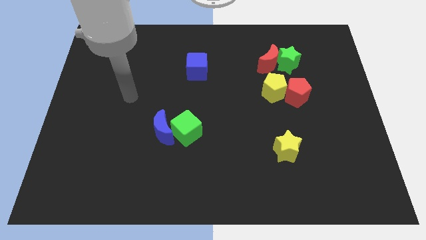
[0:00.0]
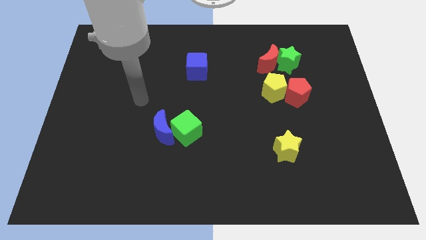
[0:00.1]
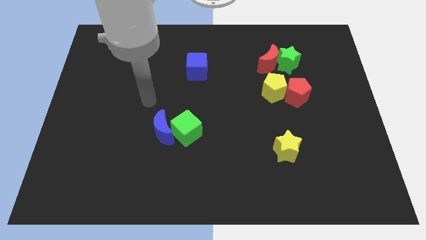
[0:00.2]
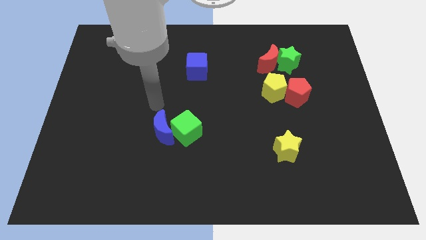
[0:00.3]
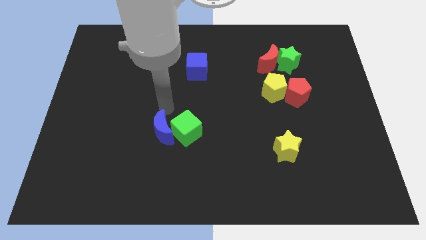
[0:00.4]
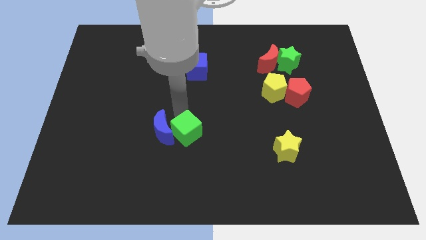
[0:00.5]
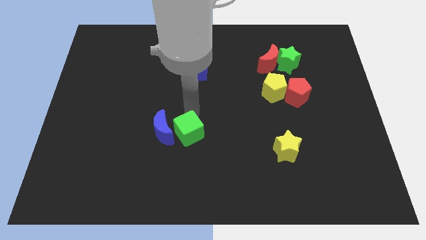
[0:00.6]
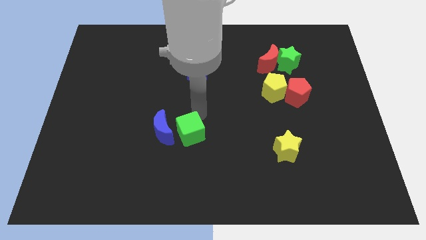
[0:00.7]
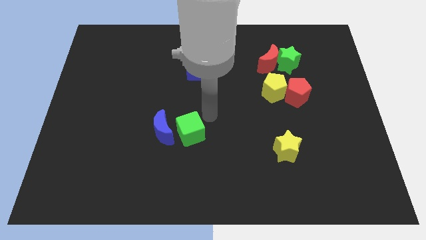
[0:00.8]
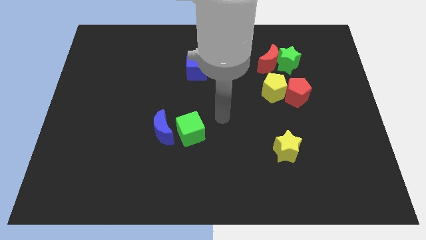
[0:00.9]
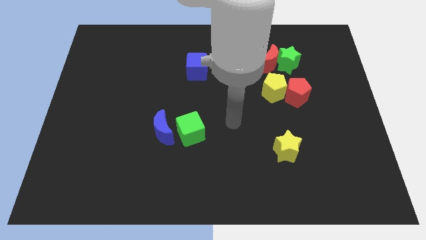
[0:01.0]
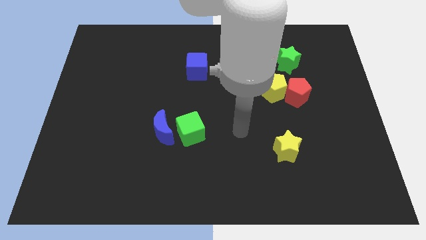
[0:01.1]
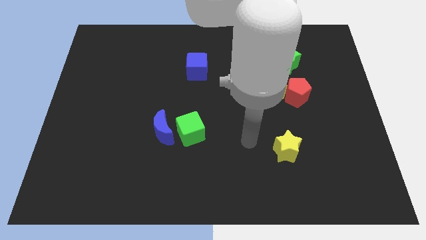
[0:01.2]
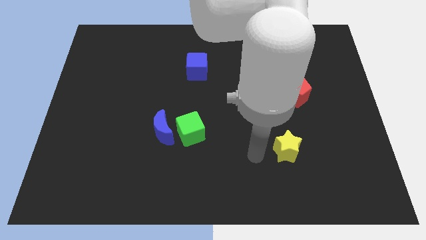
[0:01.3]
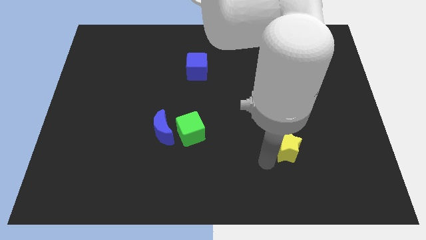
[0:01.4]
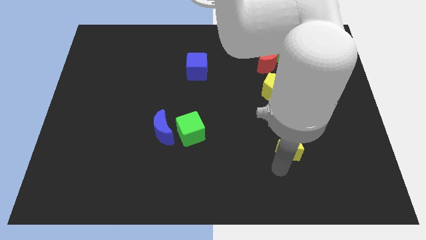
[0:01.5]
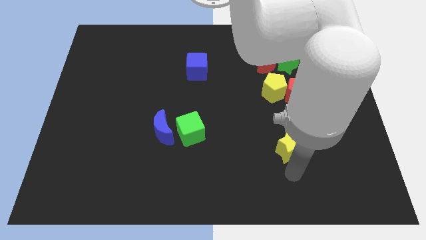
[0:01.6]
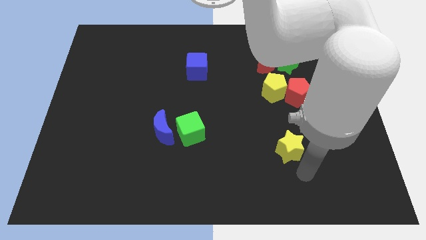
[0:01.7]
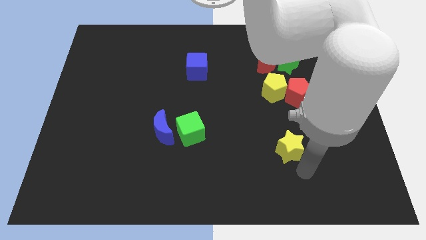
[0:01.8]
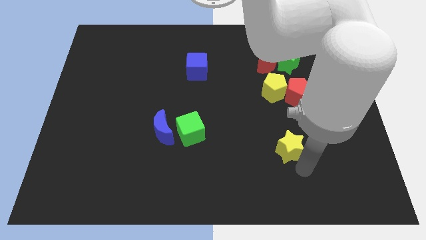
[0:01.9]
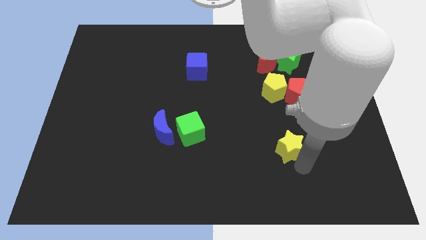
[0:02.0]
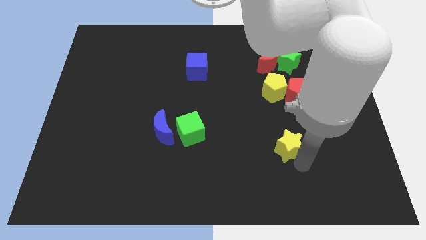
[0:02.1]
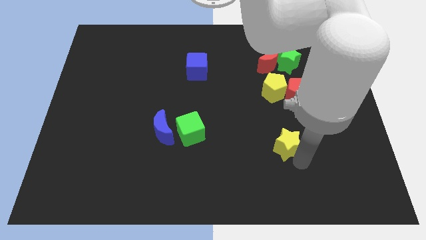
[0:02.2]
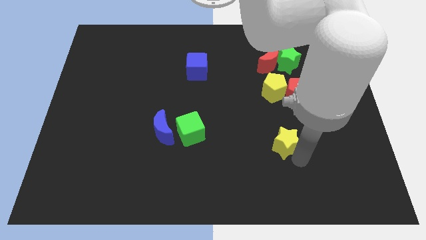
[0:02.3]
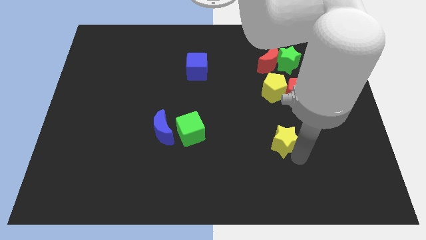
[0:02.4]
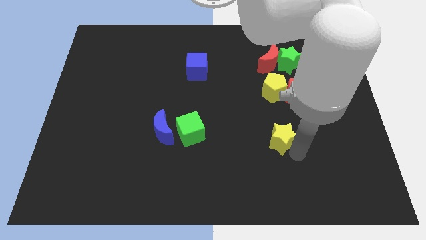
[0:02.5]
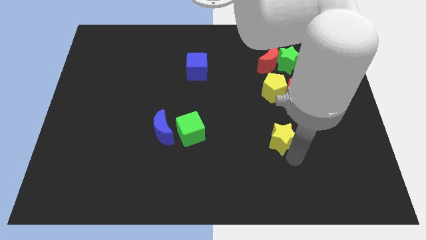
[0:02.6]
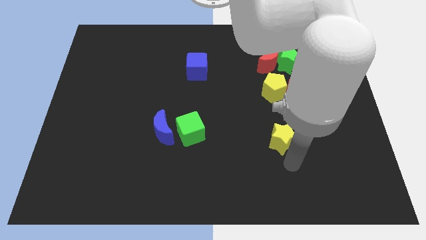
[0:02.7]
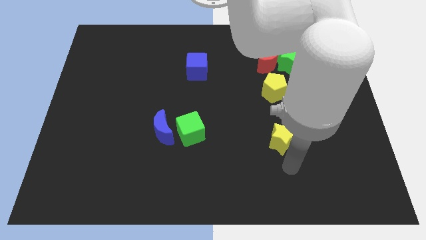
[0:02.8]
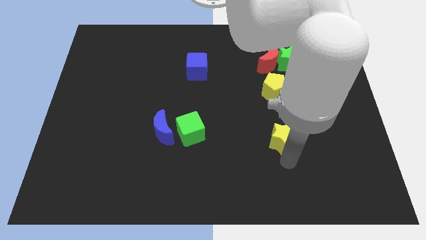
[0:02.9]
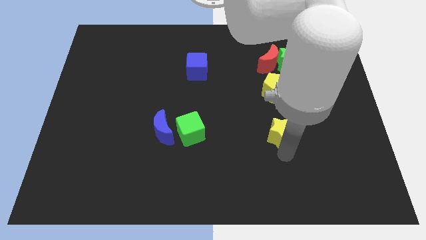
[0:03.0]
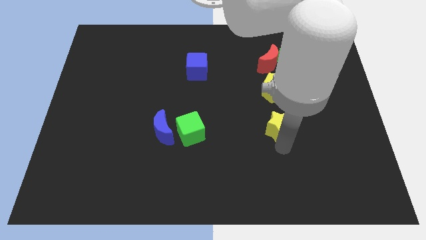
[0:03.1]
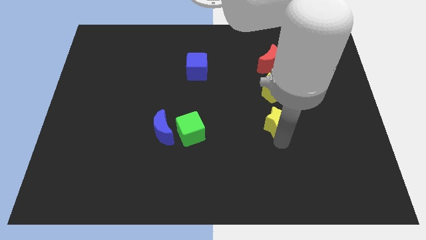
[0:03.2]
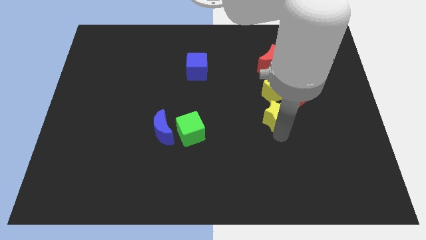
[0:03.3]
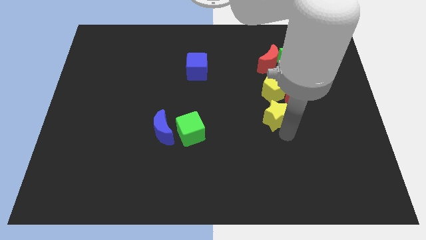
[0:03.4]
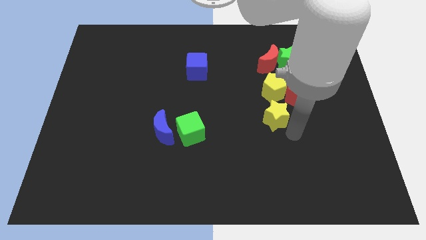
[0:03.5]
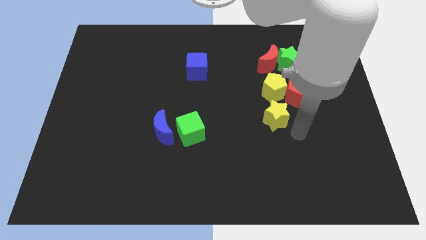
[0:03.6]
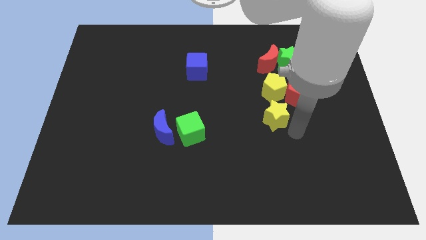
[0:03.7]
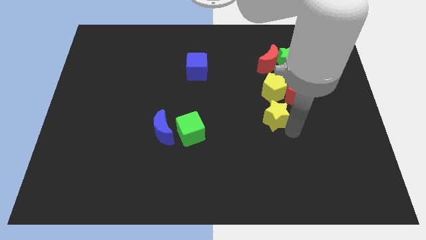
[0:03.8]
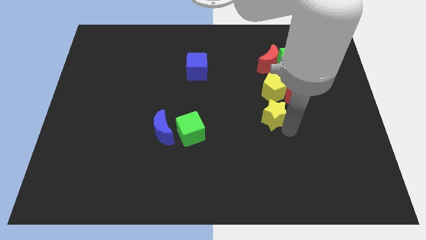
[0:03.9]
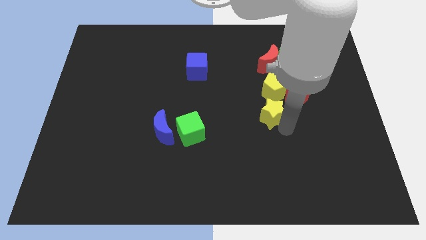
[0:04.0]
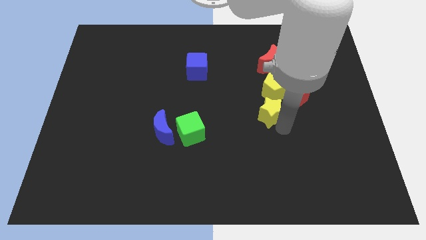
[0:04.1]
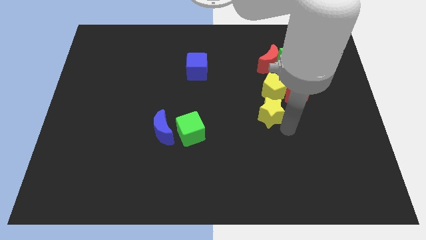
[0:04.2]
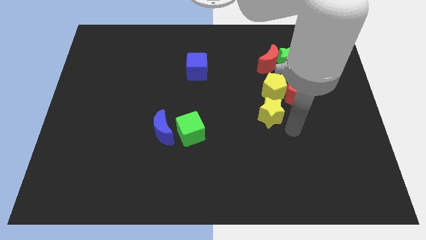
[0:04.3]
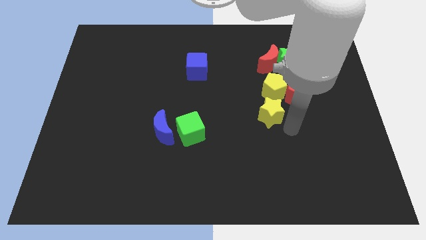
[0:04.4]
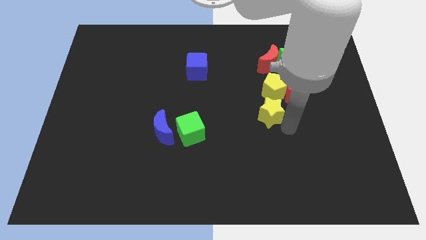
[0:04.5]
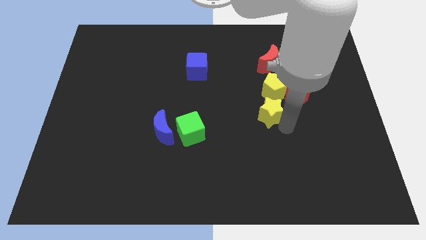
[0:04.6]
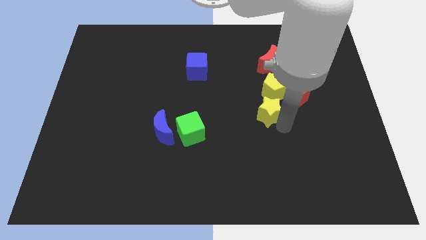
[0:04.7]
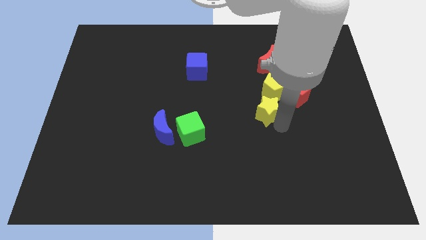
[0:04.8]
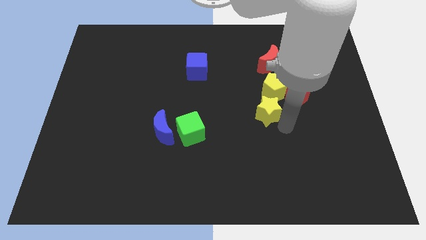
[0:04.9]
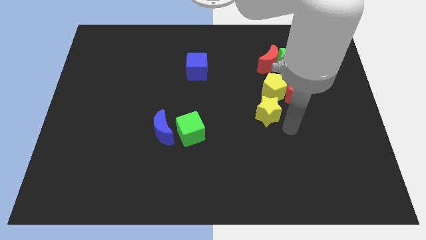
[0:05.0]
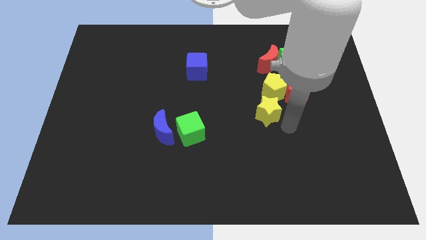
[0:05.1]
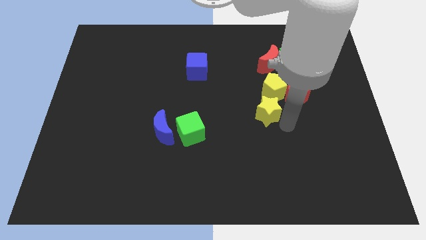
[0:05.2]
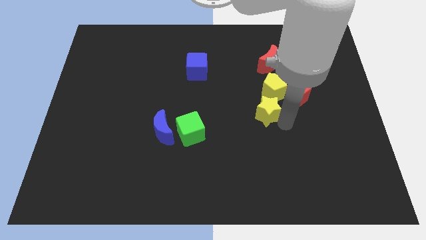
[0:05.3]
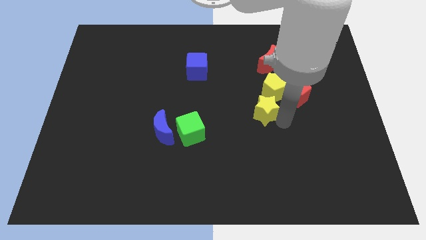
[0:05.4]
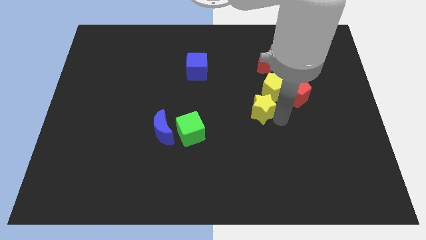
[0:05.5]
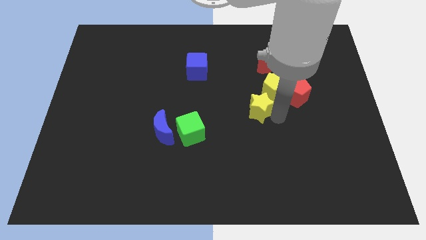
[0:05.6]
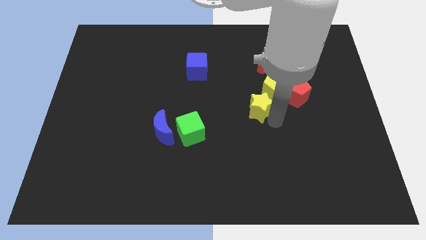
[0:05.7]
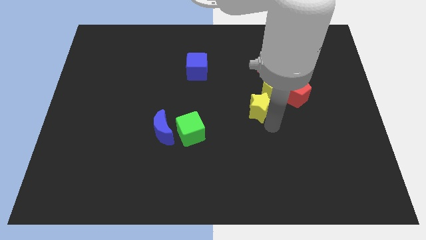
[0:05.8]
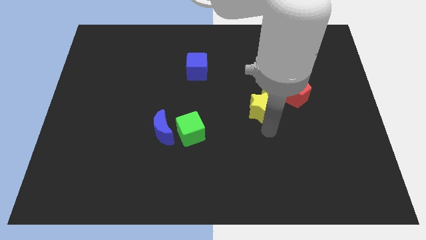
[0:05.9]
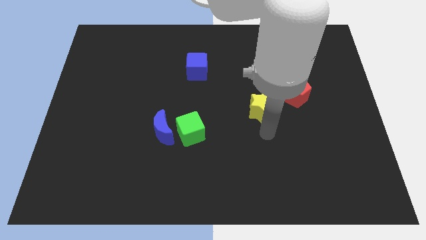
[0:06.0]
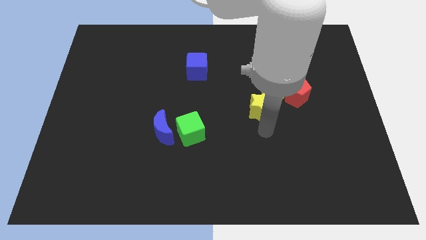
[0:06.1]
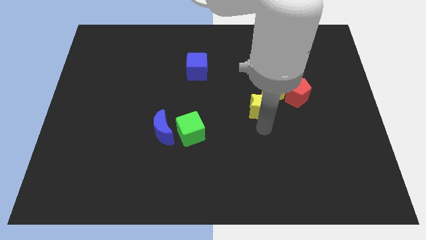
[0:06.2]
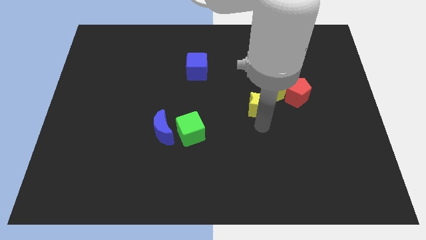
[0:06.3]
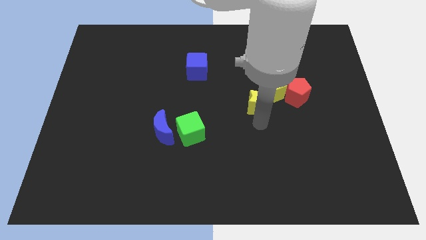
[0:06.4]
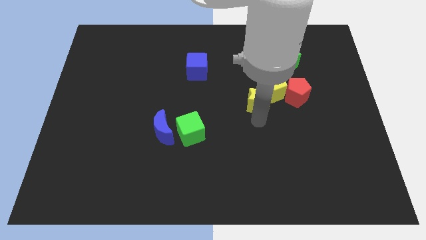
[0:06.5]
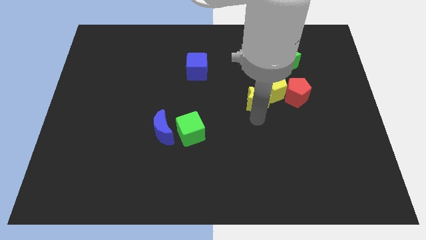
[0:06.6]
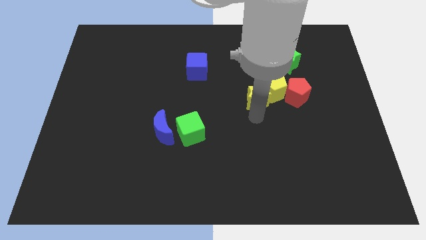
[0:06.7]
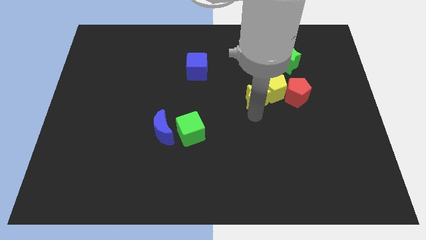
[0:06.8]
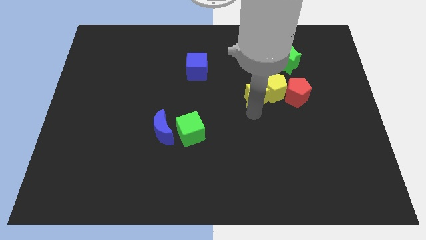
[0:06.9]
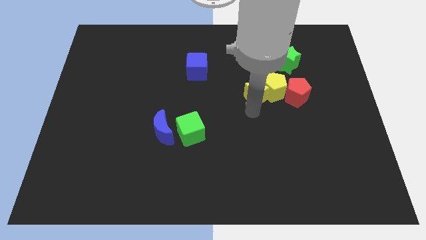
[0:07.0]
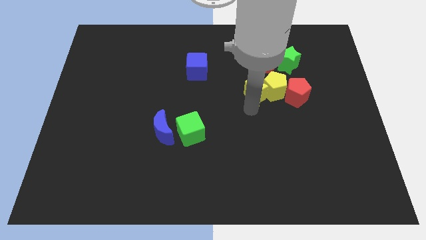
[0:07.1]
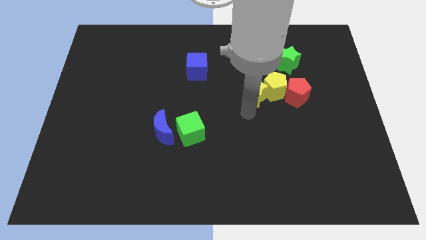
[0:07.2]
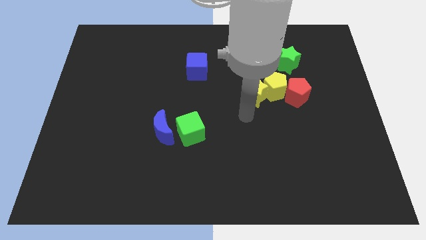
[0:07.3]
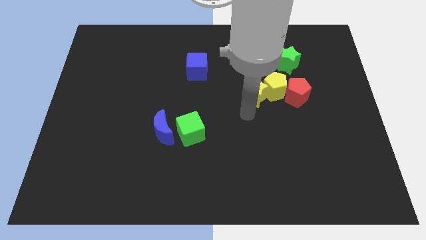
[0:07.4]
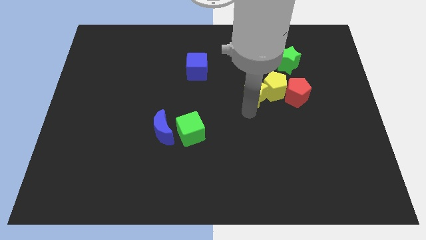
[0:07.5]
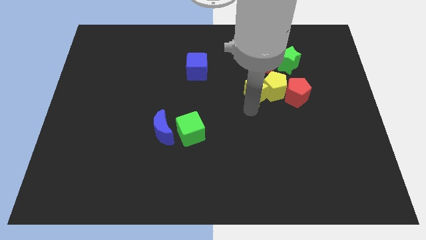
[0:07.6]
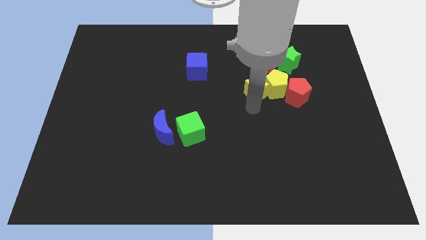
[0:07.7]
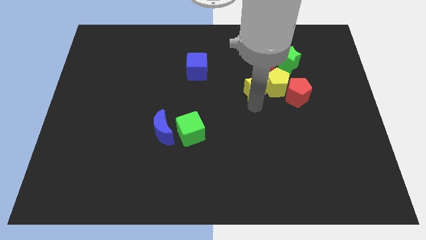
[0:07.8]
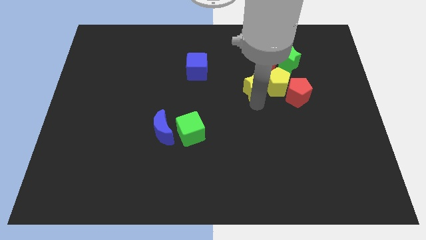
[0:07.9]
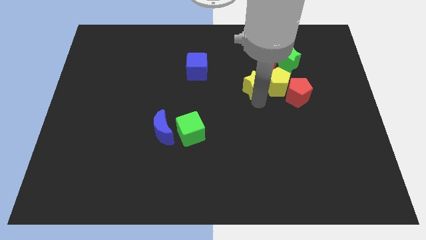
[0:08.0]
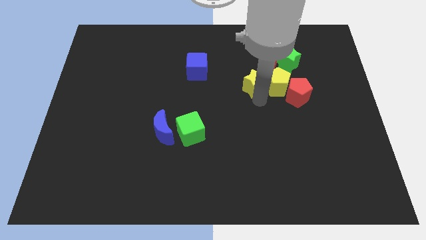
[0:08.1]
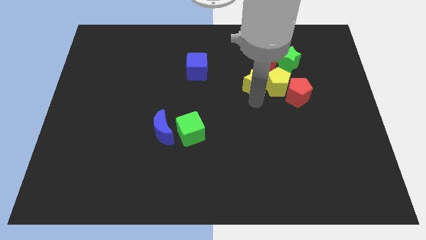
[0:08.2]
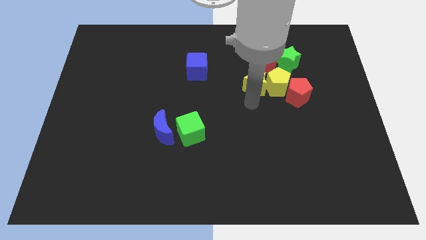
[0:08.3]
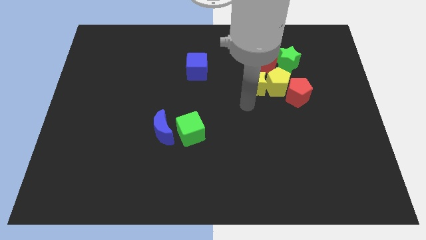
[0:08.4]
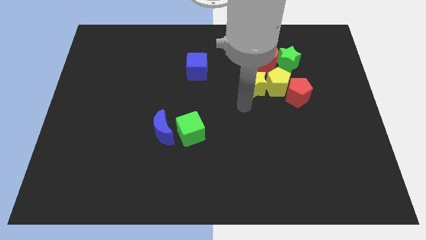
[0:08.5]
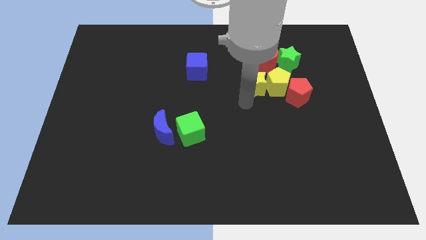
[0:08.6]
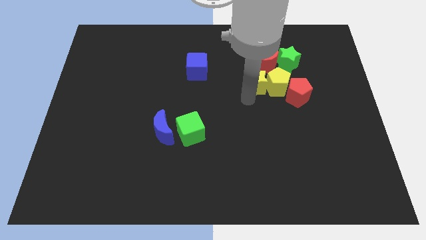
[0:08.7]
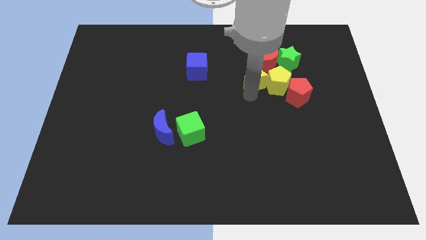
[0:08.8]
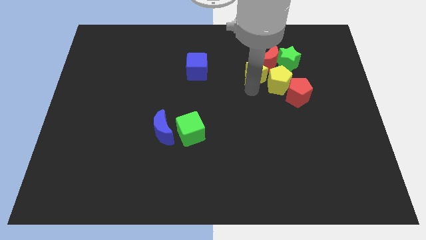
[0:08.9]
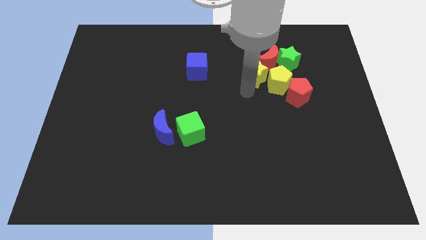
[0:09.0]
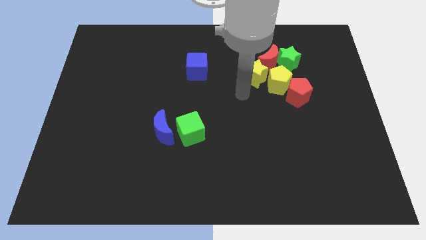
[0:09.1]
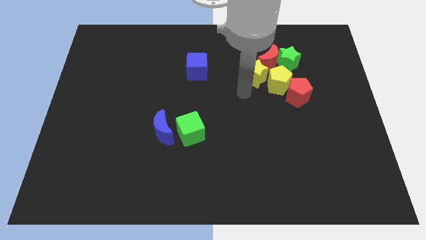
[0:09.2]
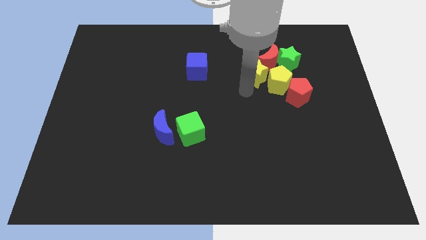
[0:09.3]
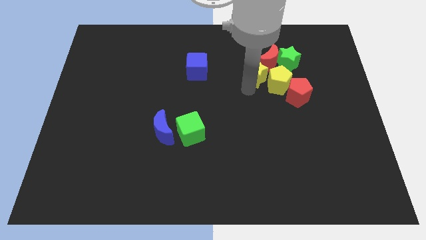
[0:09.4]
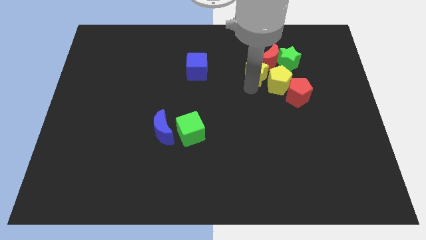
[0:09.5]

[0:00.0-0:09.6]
put the yellow star to the red moon
